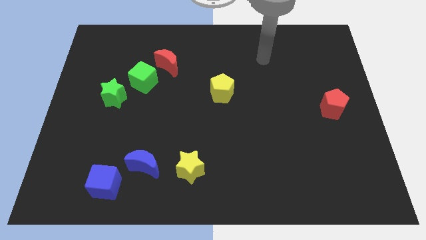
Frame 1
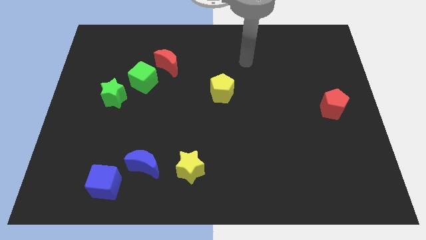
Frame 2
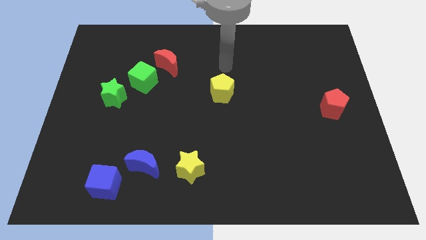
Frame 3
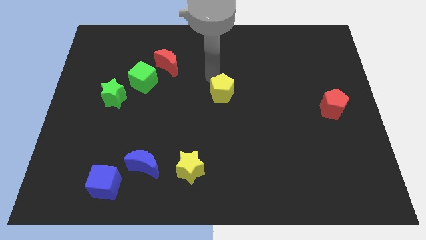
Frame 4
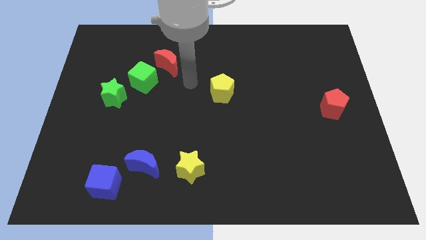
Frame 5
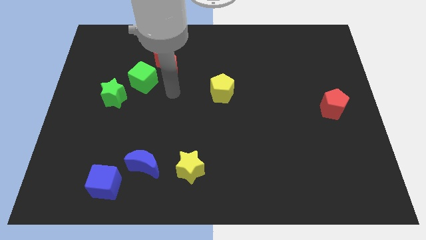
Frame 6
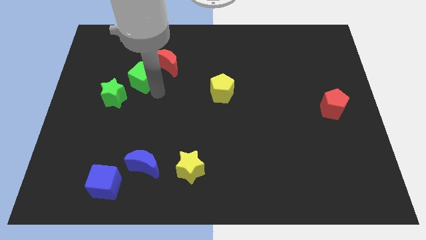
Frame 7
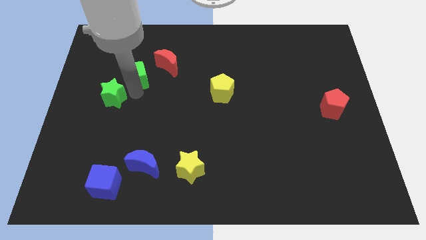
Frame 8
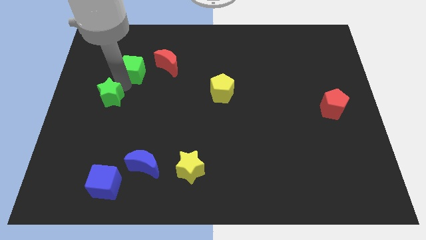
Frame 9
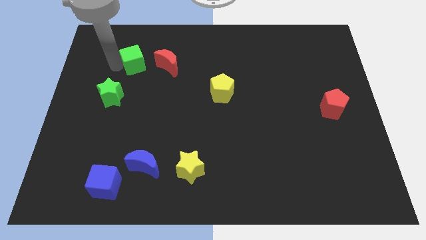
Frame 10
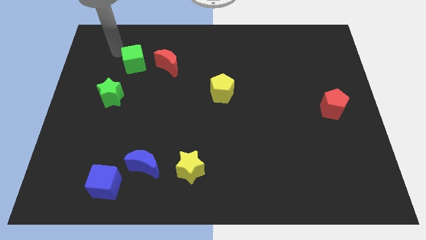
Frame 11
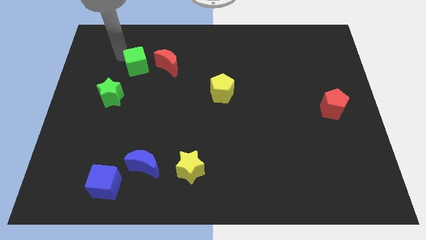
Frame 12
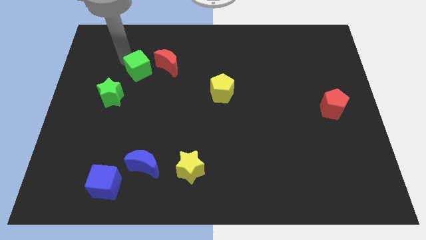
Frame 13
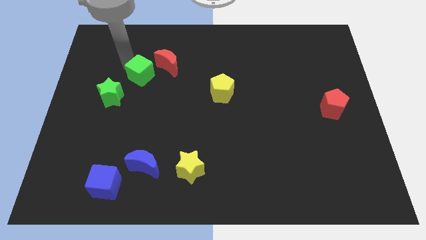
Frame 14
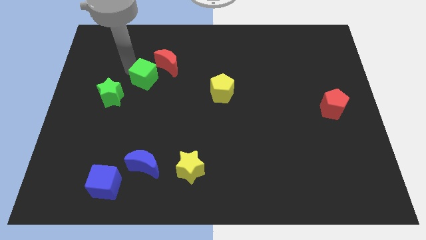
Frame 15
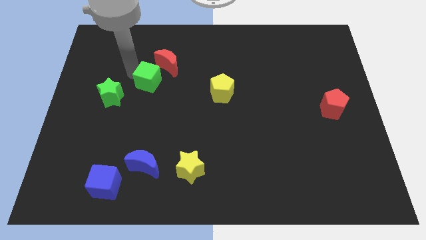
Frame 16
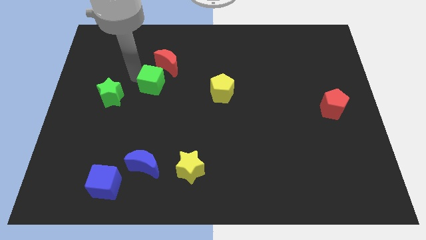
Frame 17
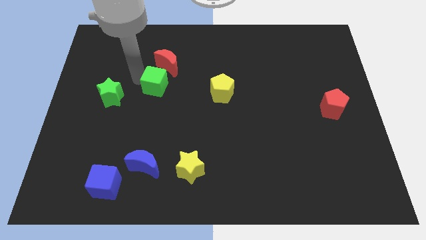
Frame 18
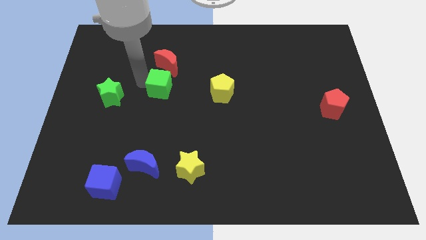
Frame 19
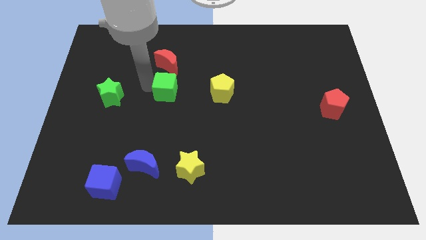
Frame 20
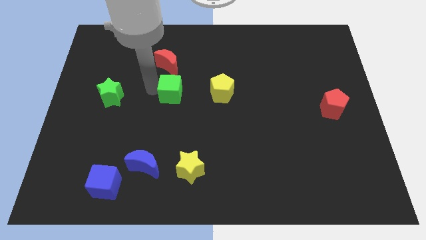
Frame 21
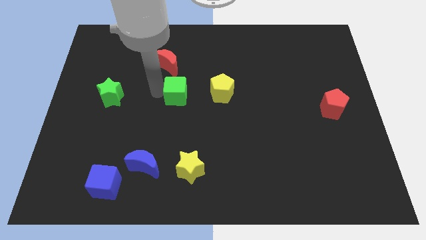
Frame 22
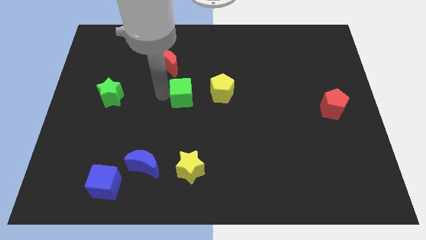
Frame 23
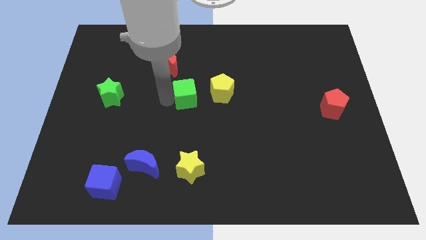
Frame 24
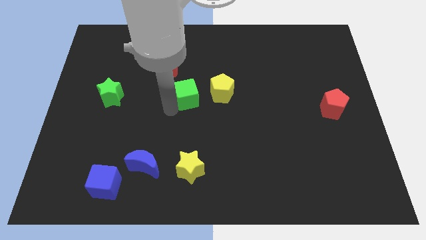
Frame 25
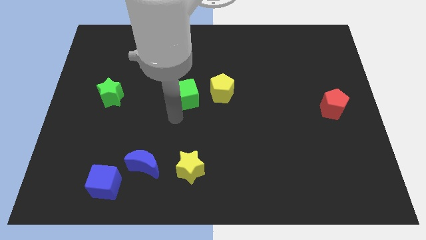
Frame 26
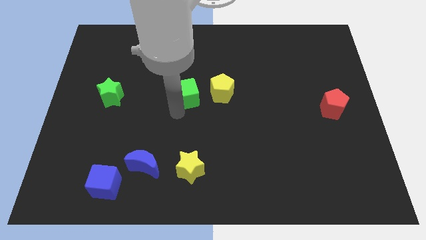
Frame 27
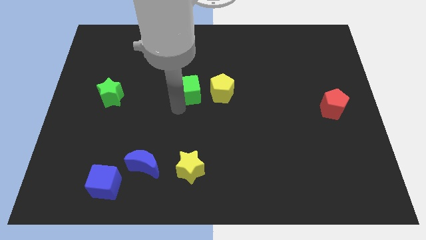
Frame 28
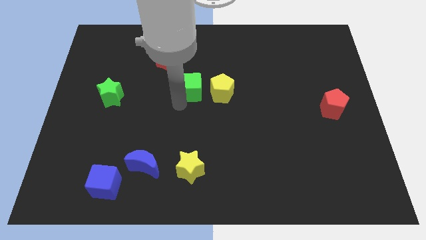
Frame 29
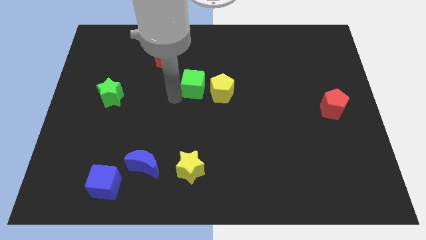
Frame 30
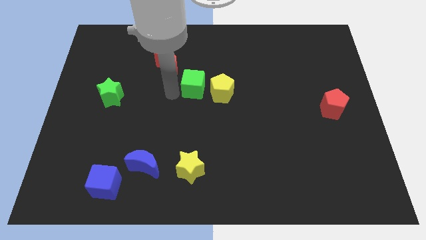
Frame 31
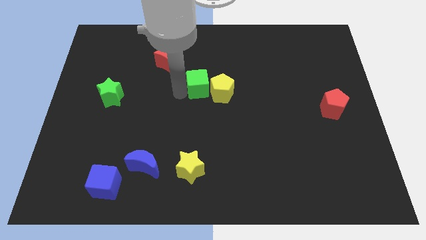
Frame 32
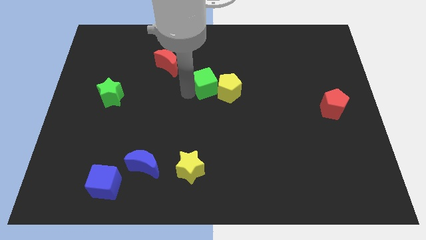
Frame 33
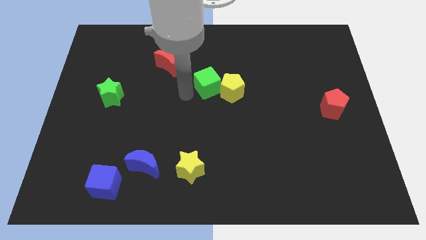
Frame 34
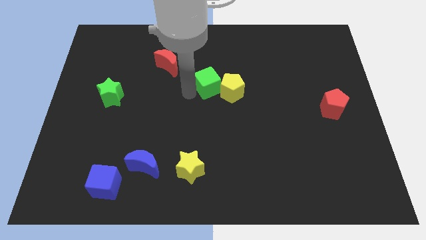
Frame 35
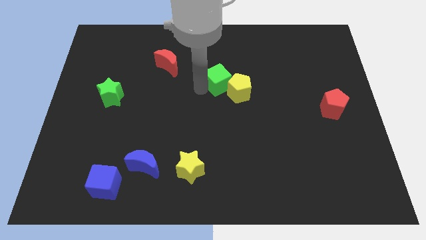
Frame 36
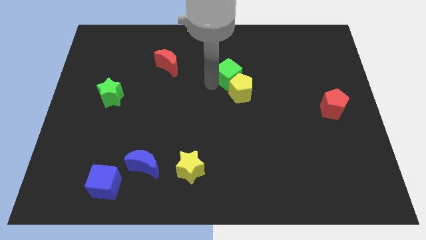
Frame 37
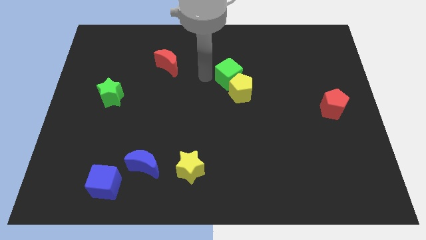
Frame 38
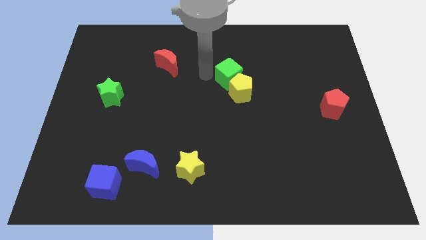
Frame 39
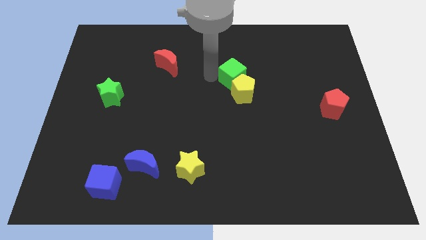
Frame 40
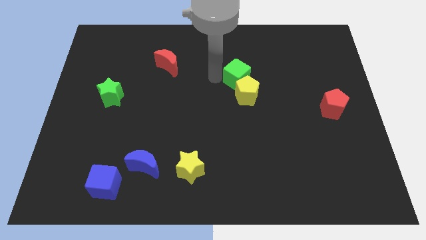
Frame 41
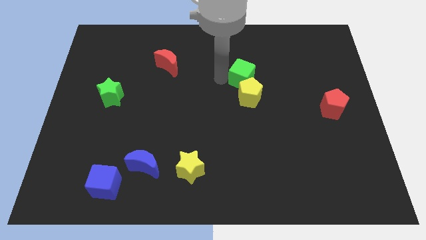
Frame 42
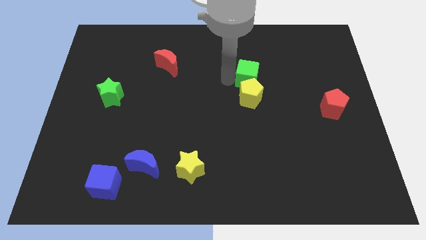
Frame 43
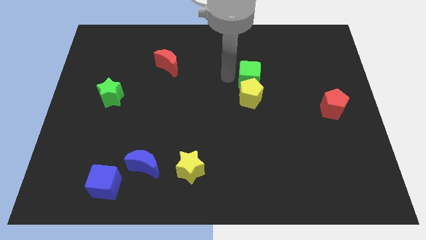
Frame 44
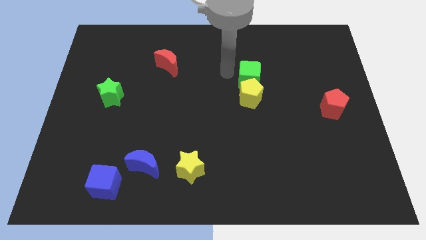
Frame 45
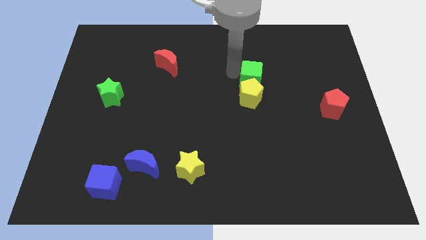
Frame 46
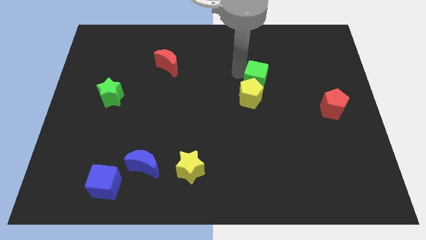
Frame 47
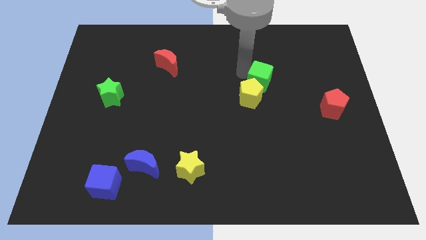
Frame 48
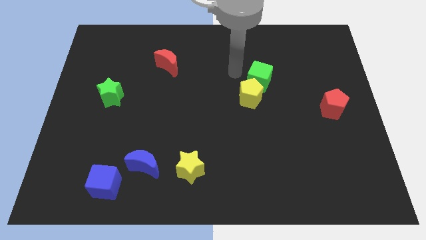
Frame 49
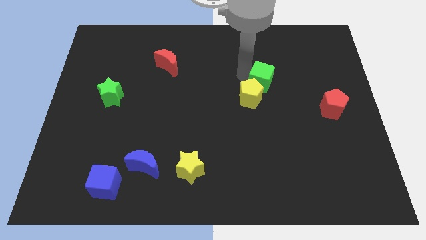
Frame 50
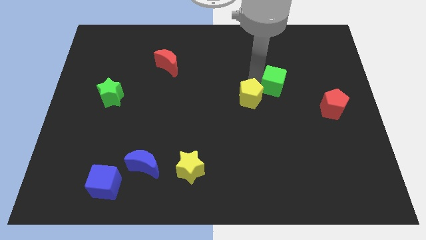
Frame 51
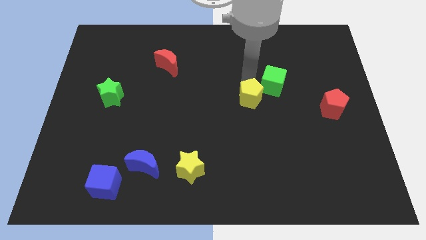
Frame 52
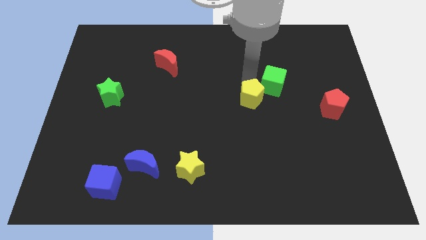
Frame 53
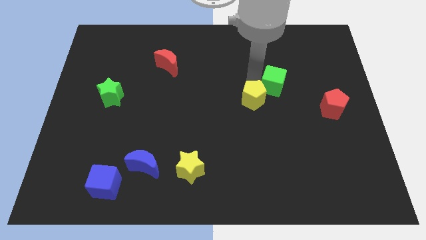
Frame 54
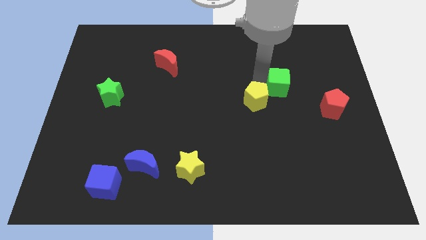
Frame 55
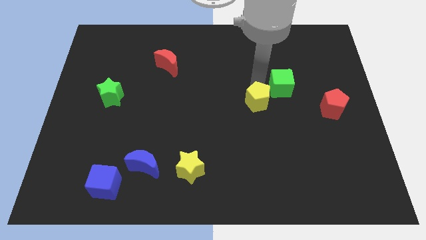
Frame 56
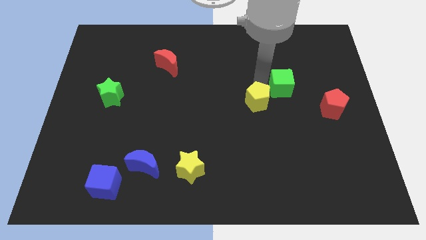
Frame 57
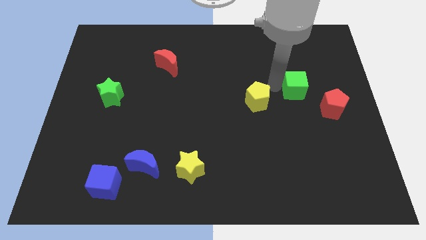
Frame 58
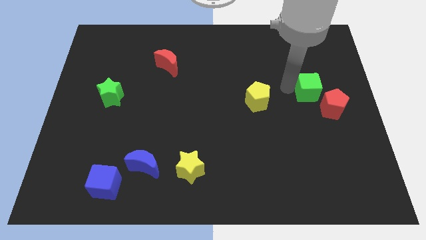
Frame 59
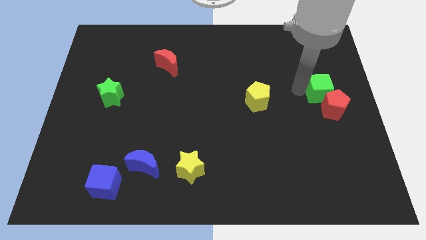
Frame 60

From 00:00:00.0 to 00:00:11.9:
move the green cube to the right side
